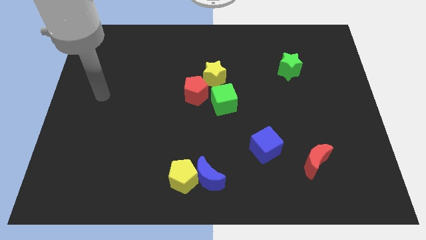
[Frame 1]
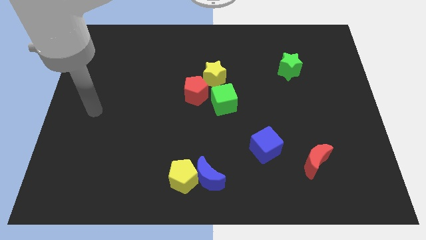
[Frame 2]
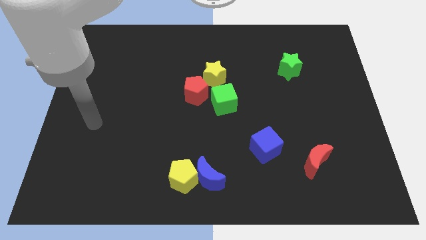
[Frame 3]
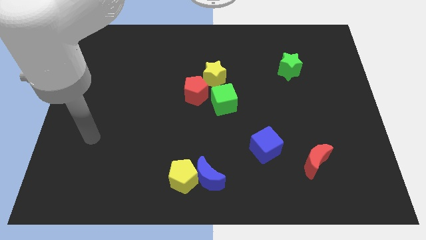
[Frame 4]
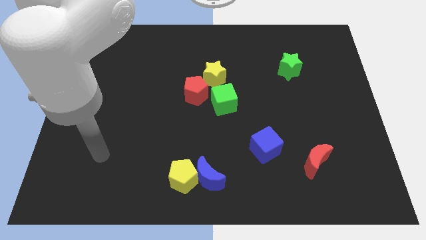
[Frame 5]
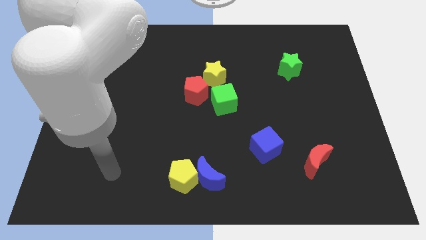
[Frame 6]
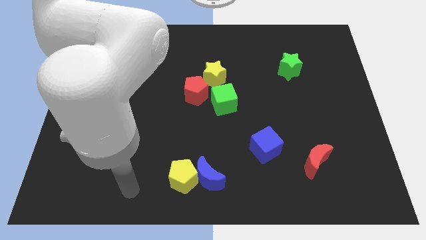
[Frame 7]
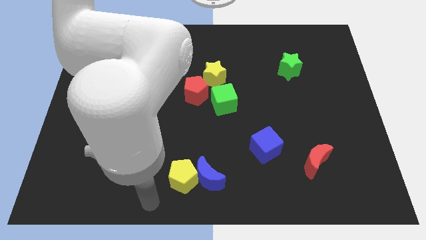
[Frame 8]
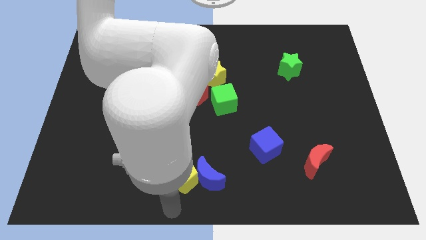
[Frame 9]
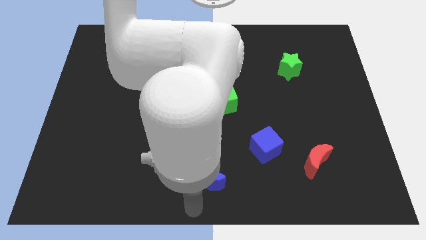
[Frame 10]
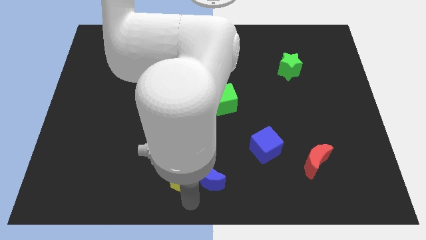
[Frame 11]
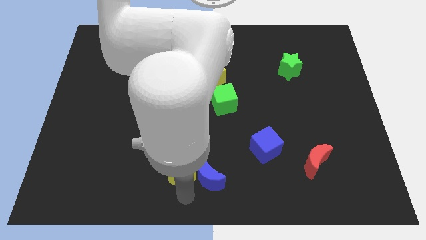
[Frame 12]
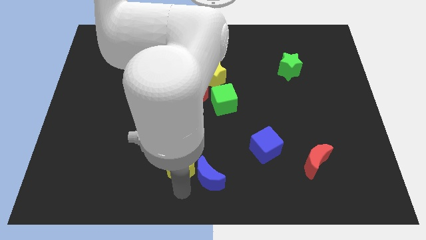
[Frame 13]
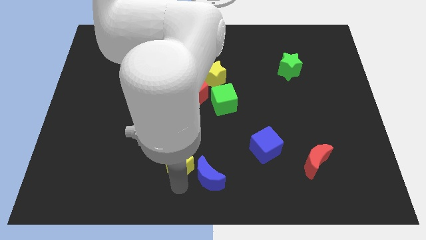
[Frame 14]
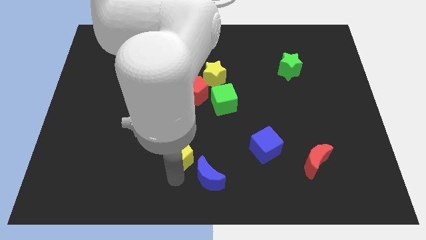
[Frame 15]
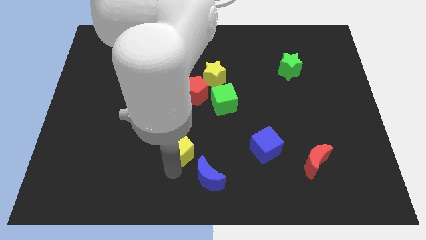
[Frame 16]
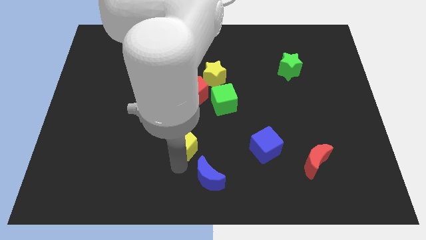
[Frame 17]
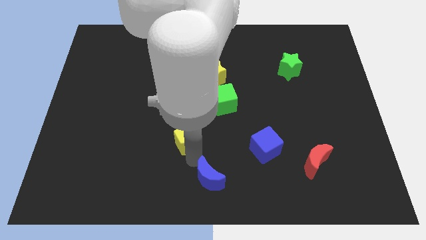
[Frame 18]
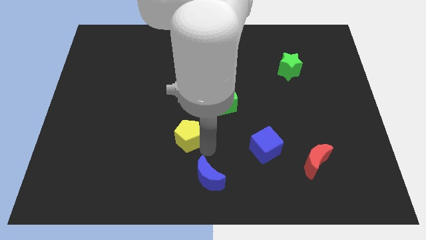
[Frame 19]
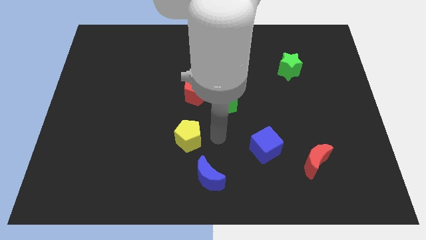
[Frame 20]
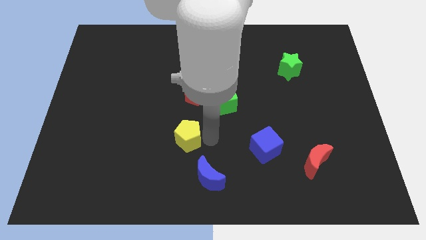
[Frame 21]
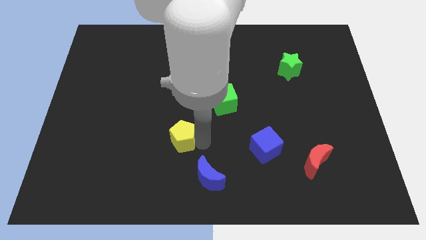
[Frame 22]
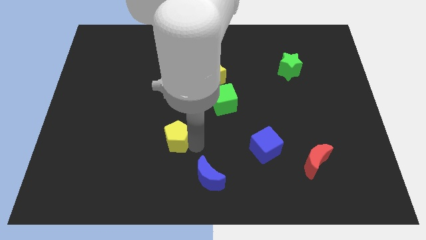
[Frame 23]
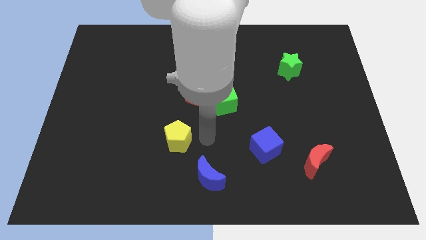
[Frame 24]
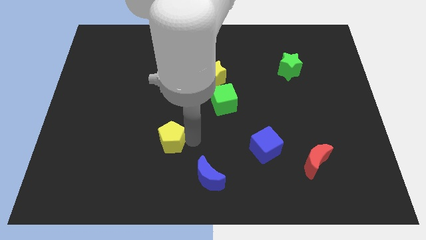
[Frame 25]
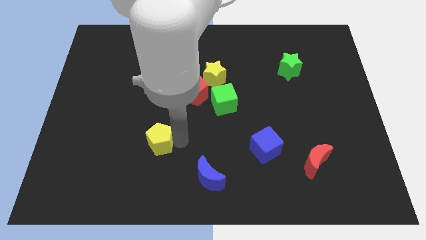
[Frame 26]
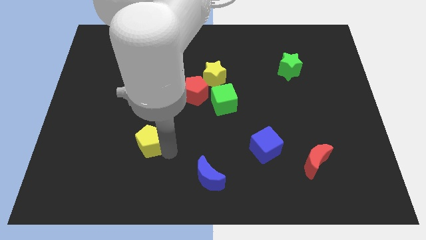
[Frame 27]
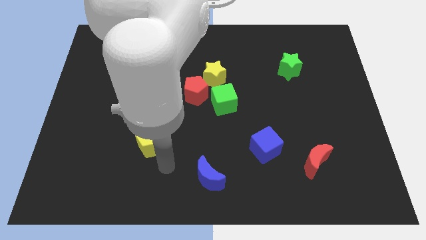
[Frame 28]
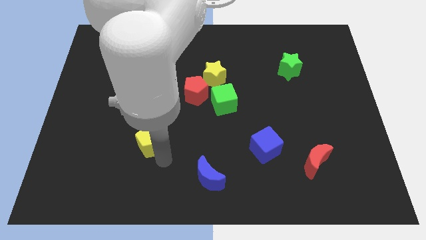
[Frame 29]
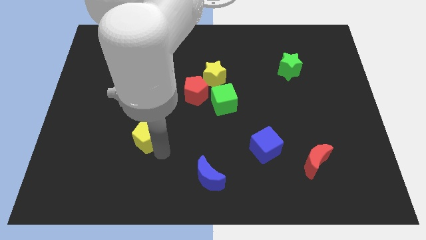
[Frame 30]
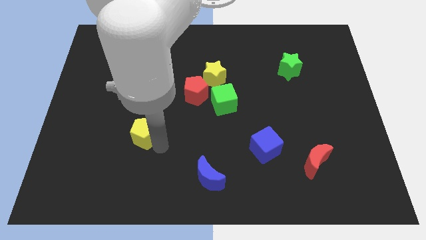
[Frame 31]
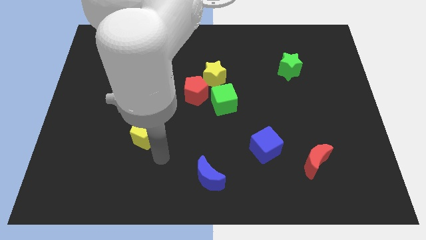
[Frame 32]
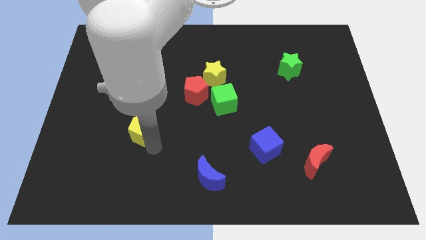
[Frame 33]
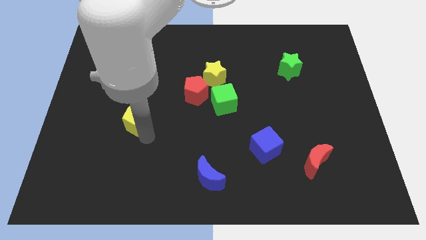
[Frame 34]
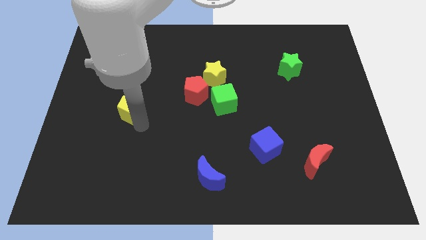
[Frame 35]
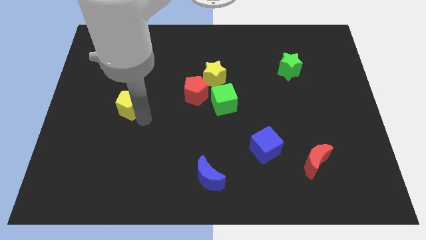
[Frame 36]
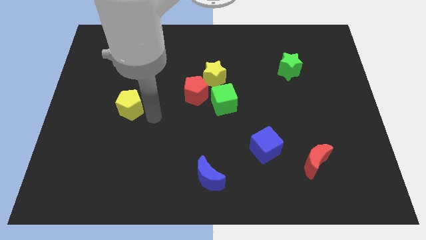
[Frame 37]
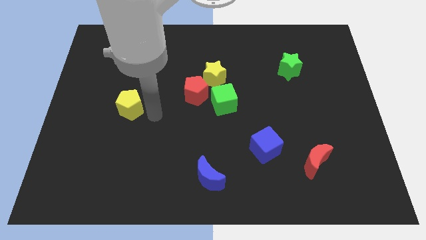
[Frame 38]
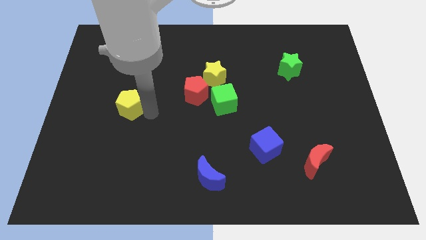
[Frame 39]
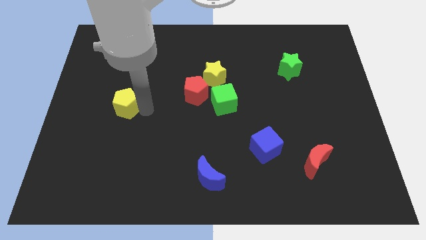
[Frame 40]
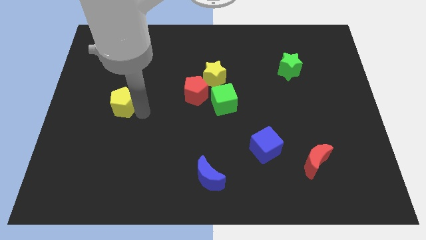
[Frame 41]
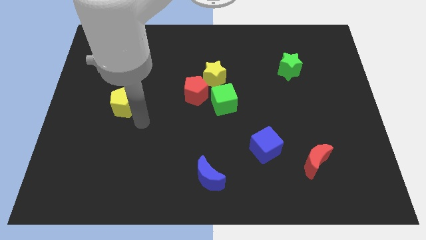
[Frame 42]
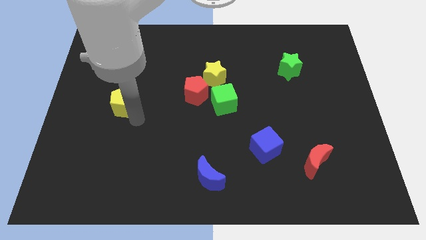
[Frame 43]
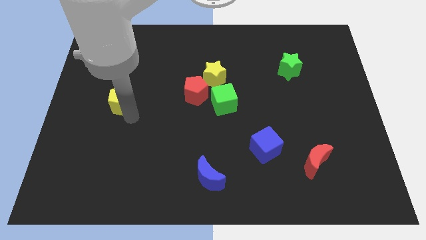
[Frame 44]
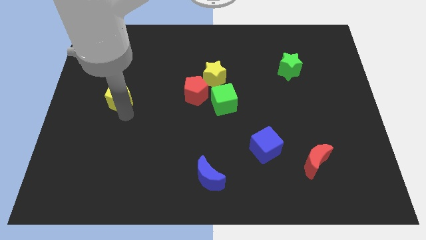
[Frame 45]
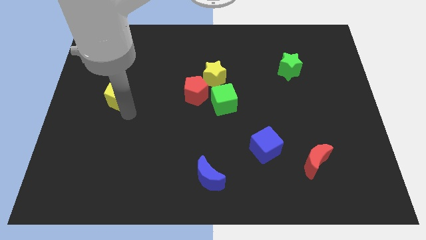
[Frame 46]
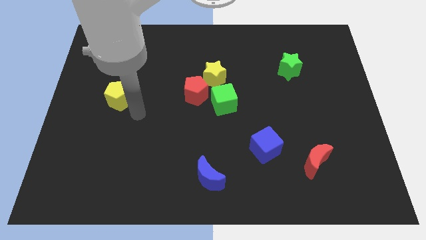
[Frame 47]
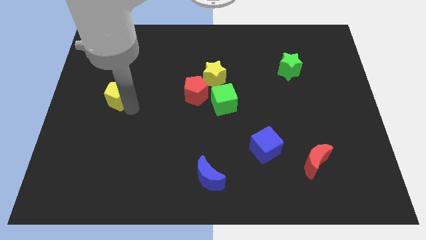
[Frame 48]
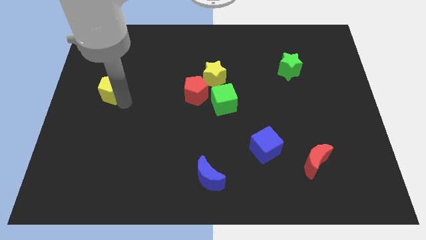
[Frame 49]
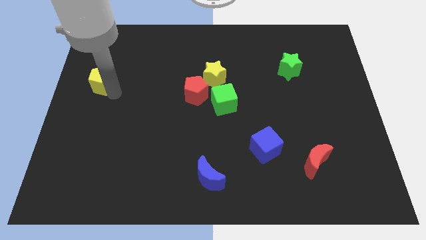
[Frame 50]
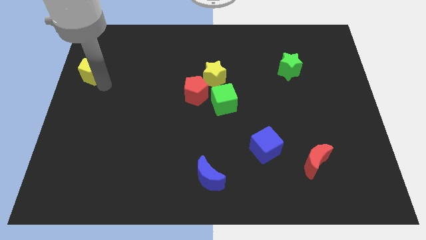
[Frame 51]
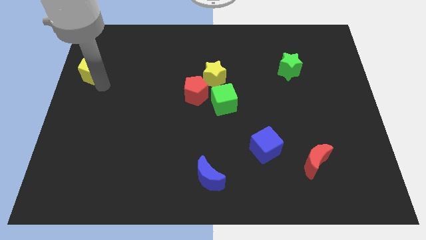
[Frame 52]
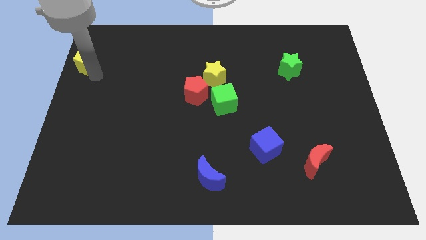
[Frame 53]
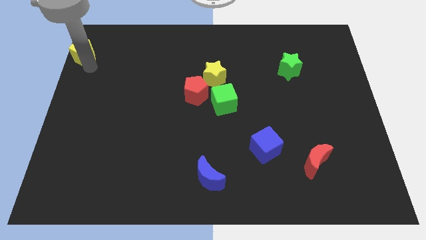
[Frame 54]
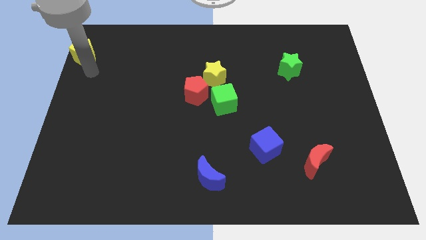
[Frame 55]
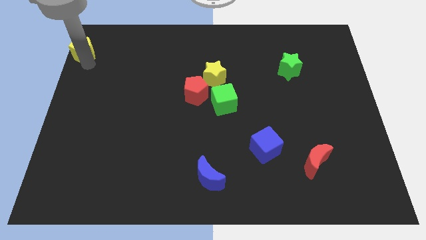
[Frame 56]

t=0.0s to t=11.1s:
move the yellow pentagon to the top left
